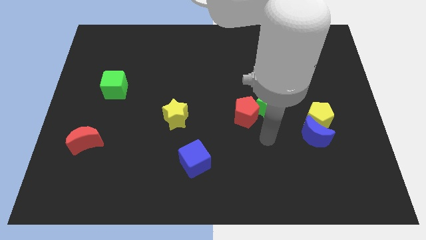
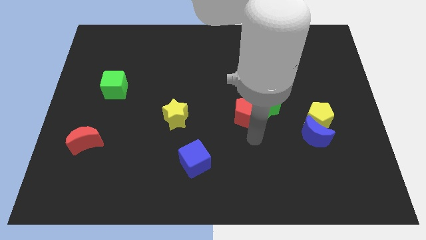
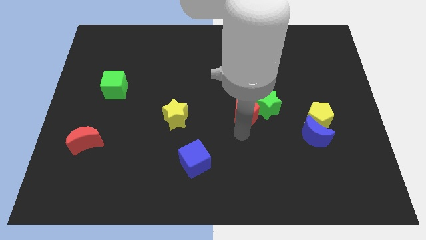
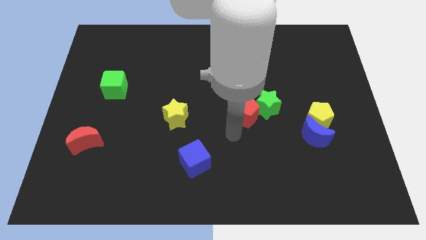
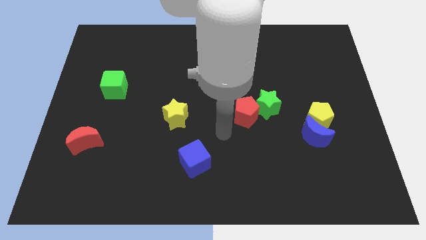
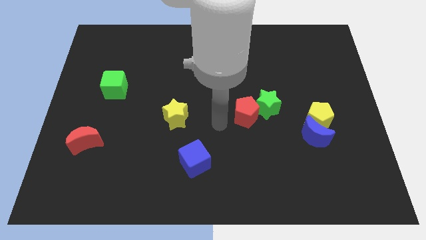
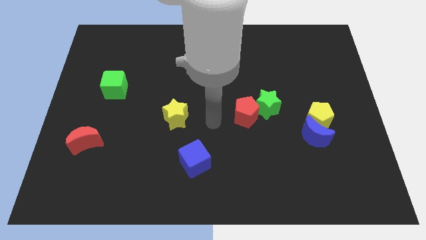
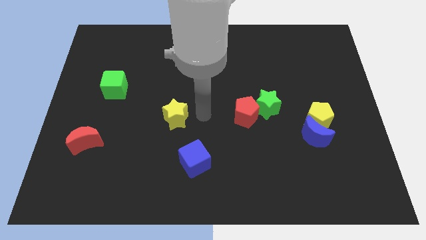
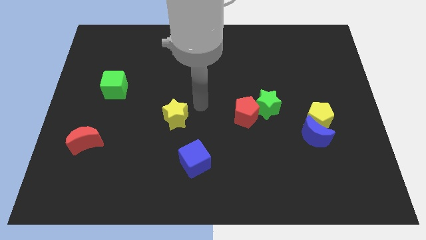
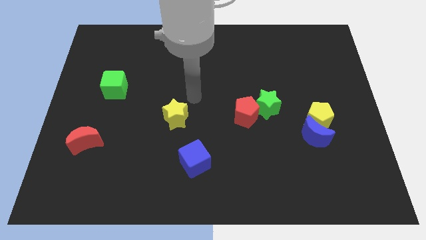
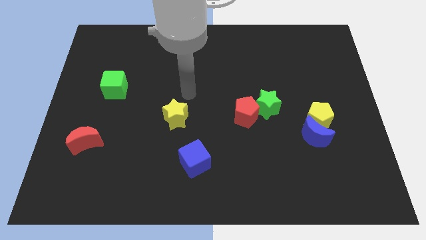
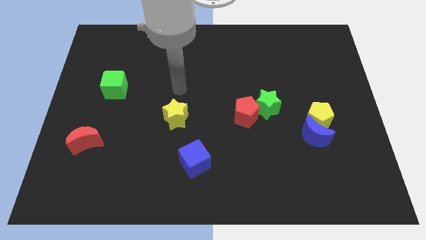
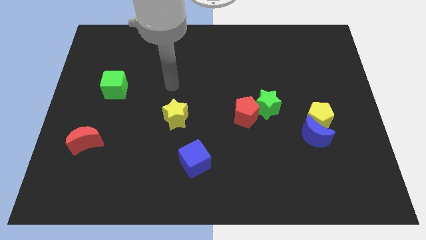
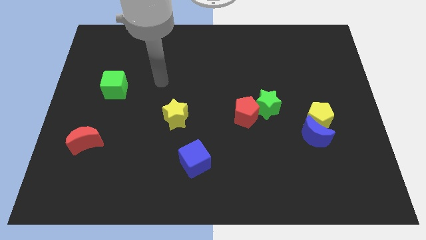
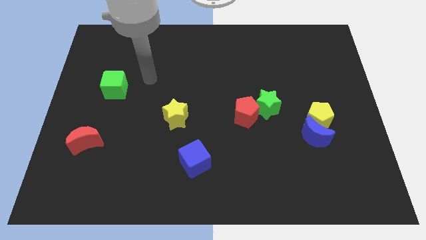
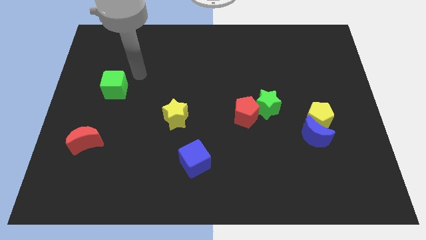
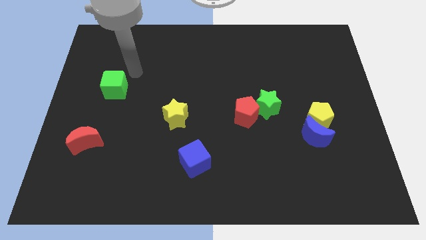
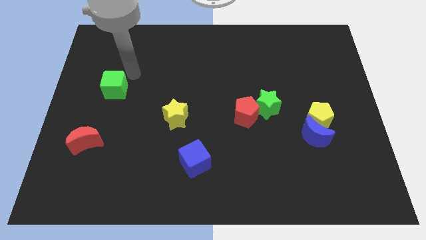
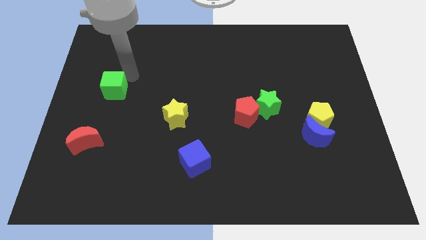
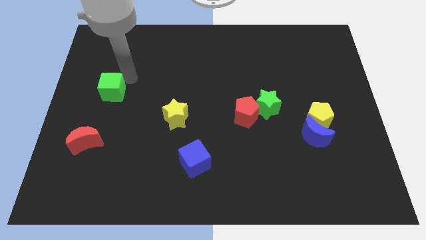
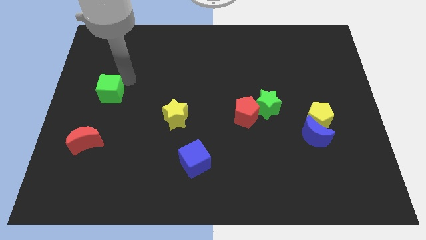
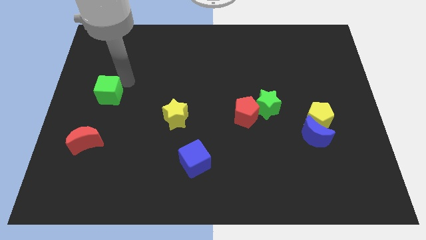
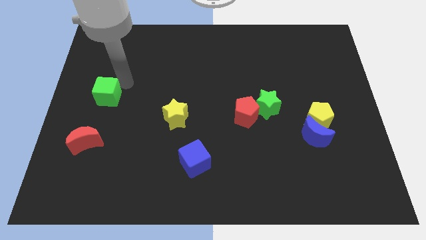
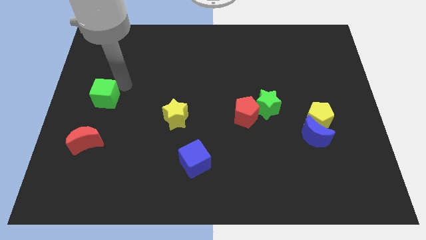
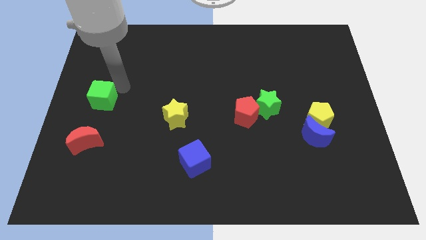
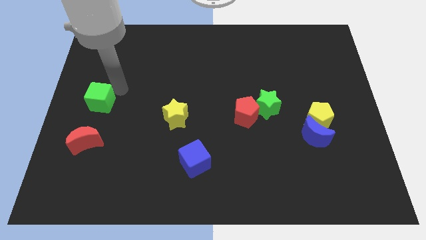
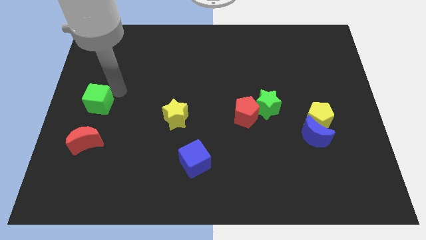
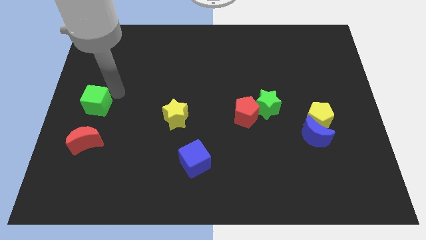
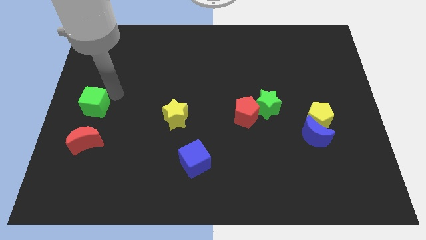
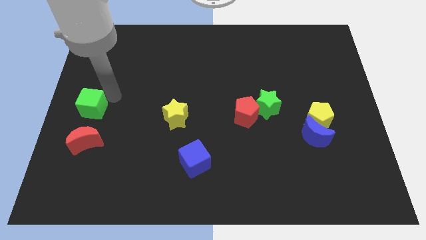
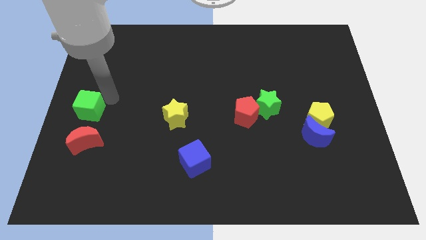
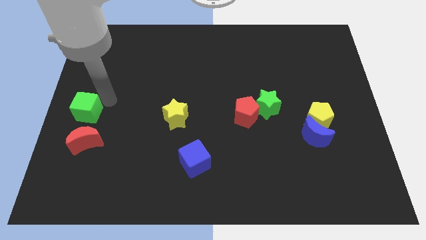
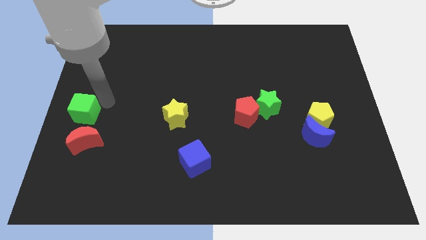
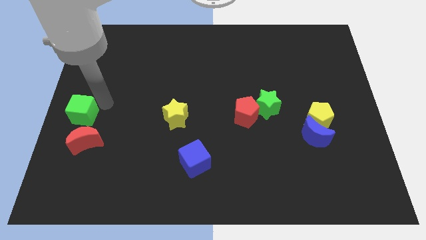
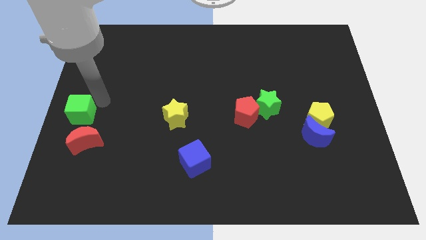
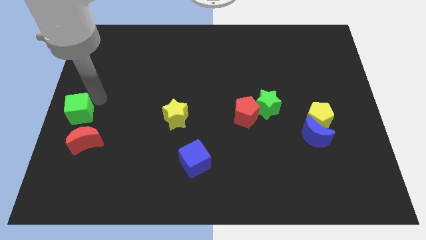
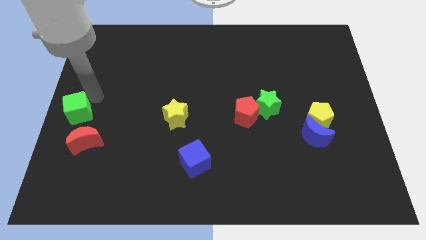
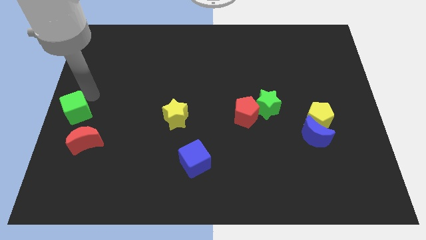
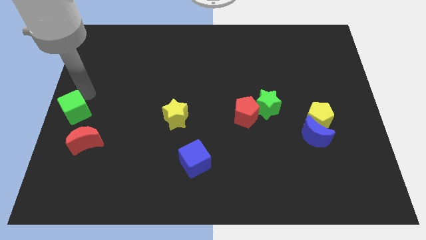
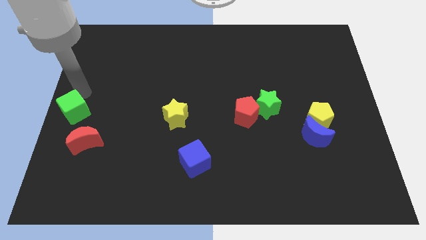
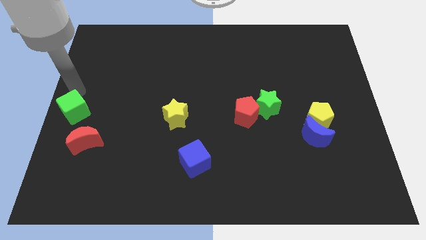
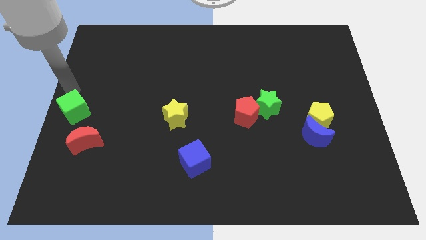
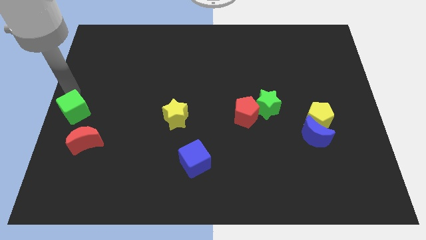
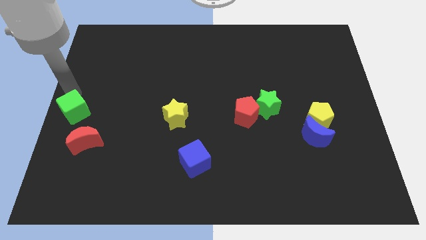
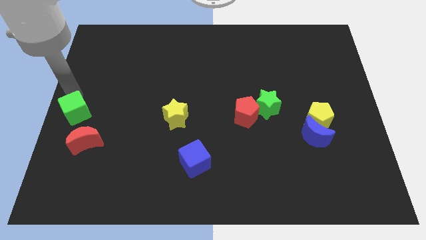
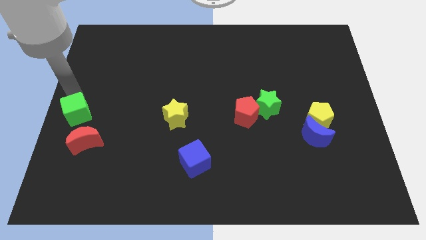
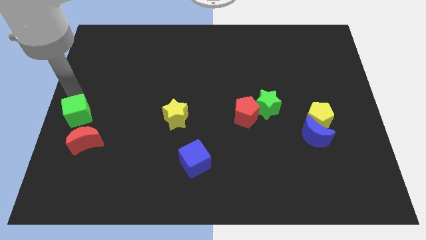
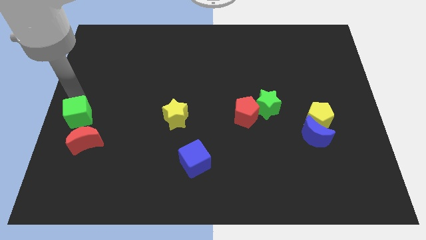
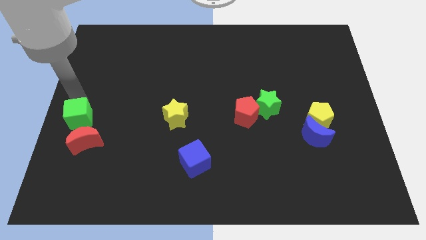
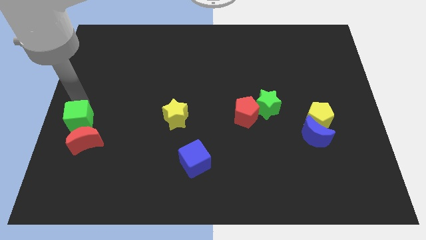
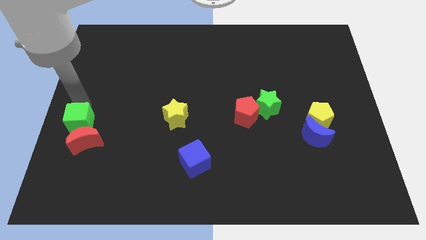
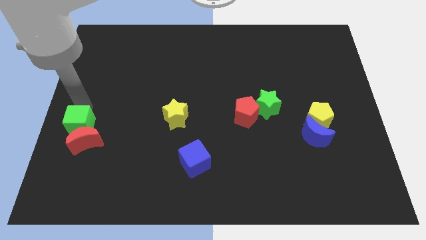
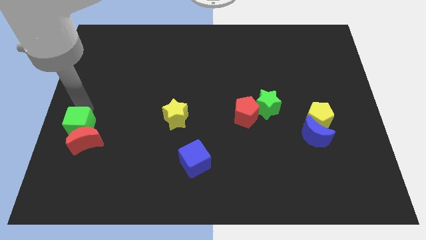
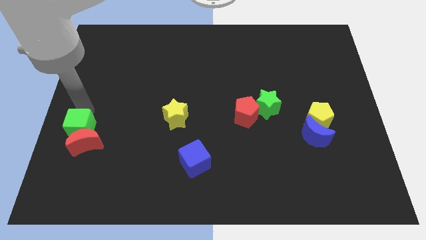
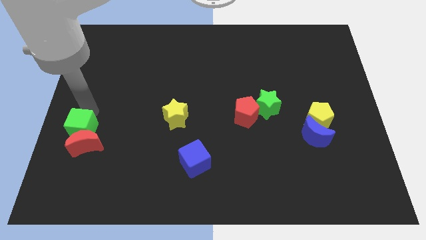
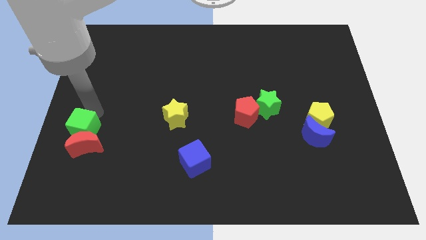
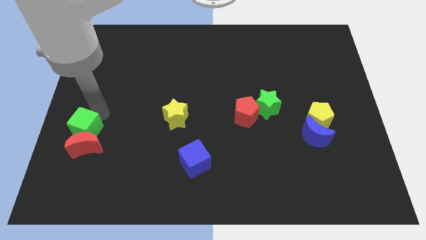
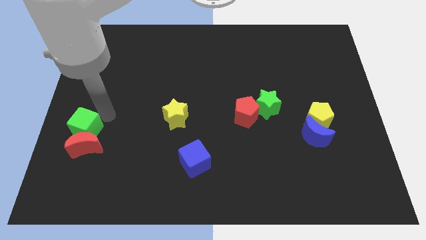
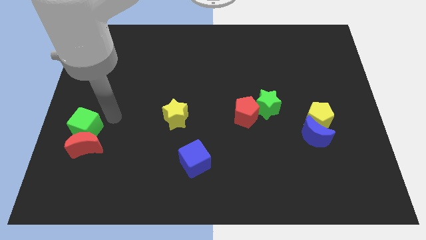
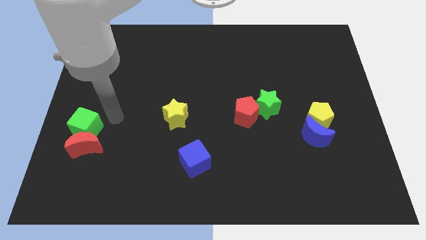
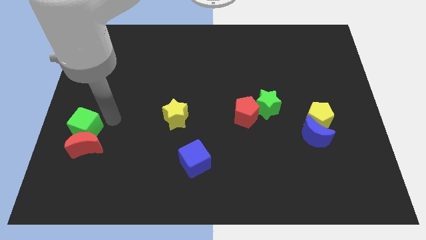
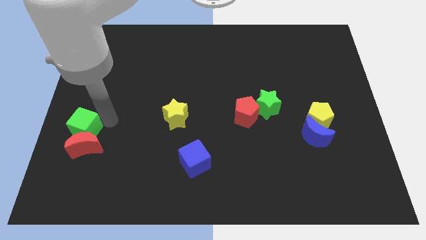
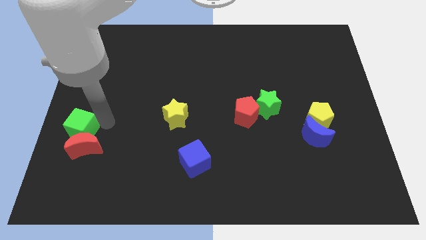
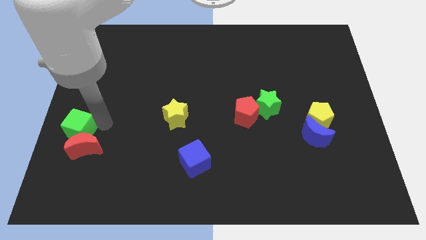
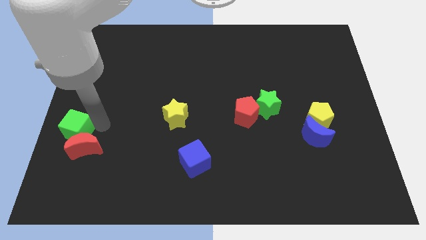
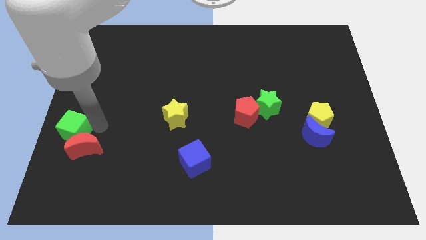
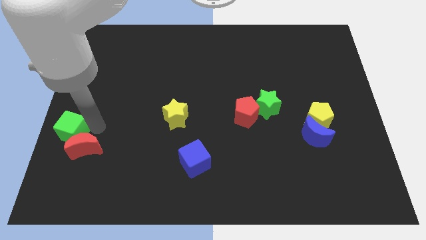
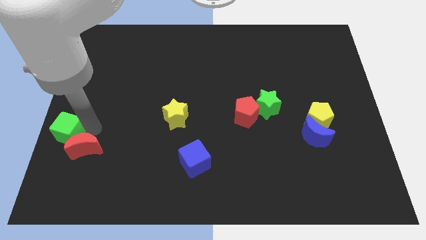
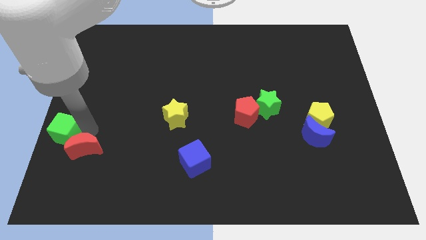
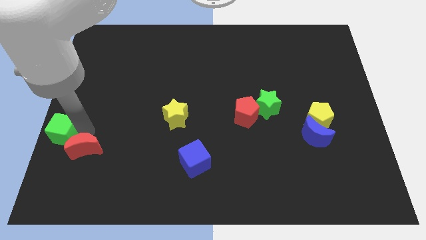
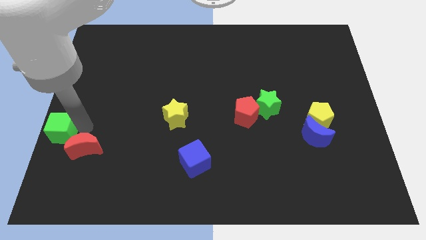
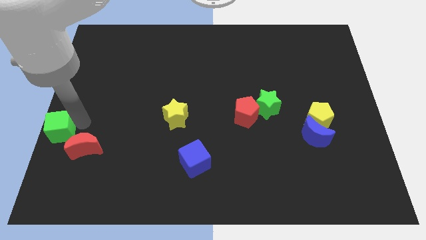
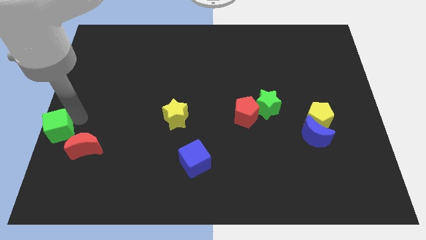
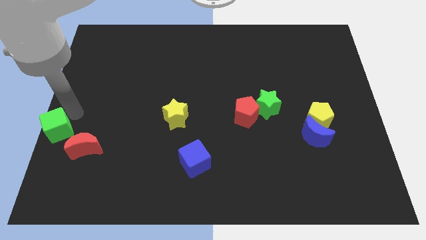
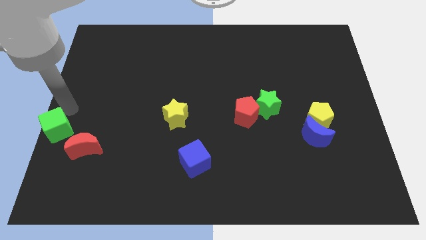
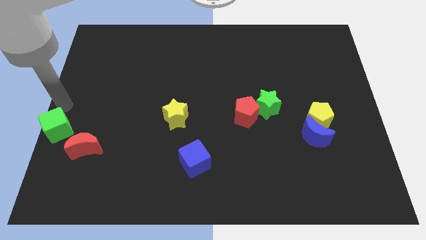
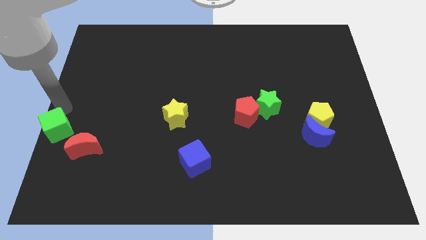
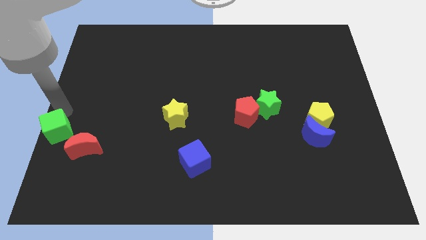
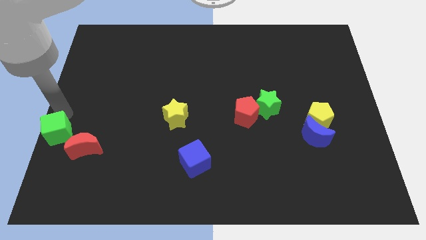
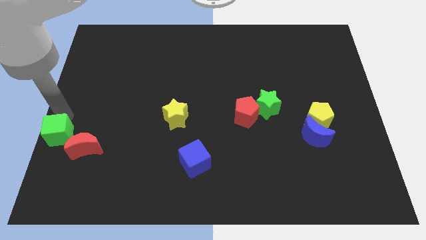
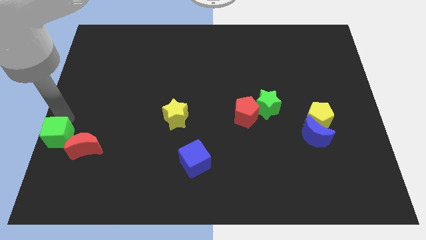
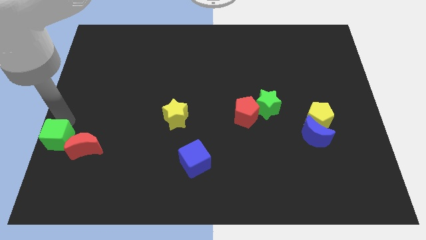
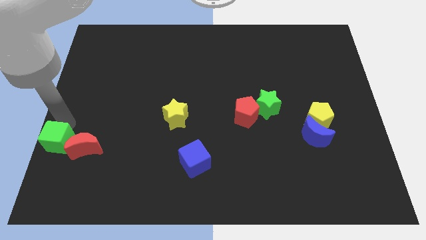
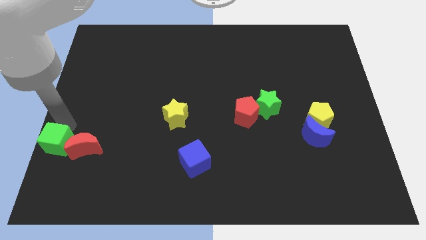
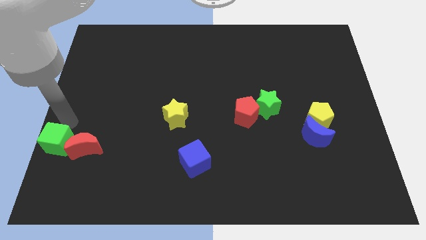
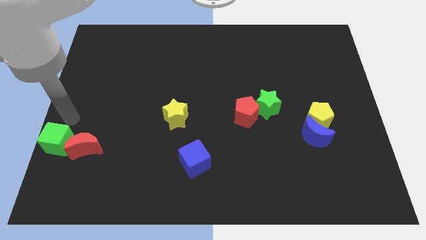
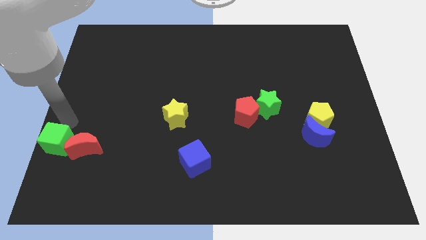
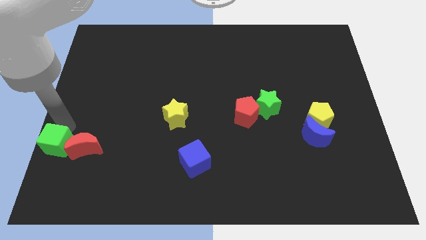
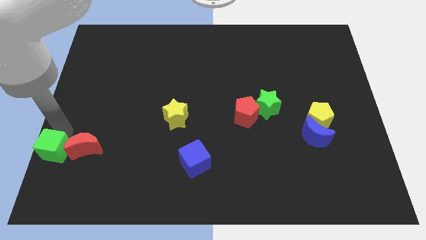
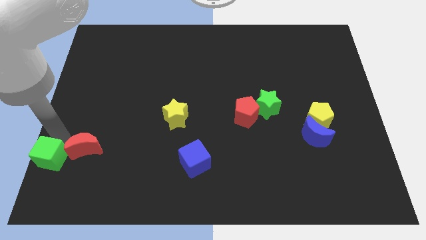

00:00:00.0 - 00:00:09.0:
slide the green cube to the bottom left corner
